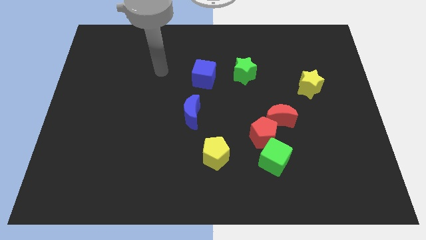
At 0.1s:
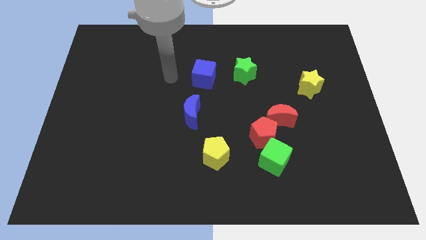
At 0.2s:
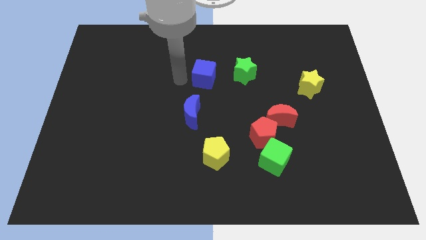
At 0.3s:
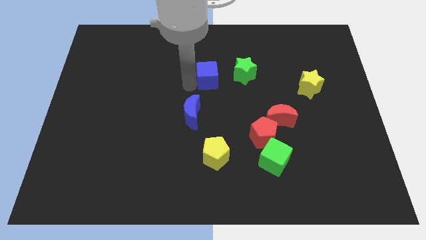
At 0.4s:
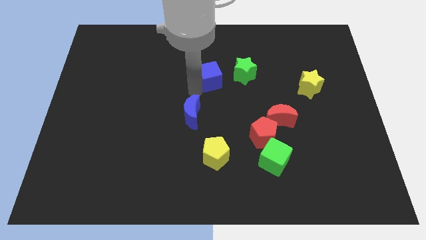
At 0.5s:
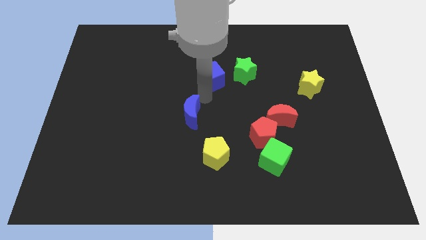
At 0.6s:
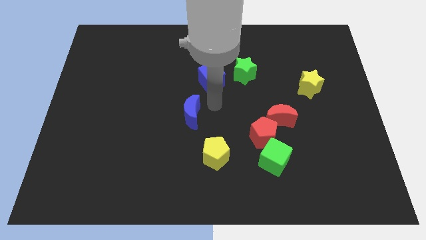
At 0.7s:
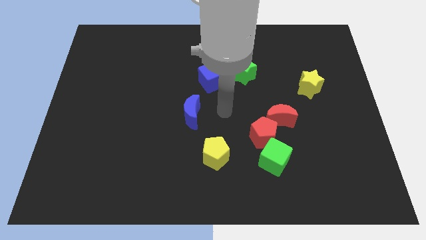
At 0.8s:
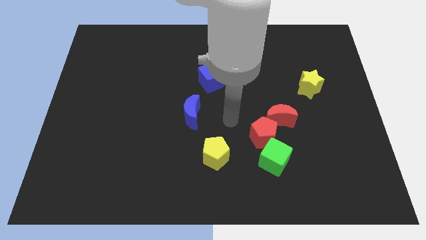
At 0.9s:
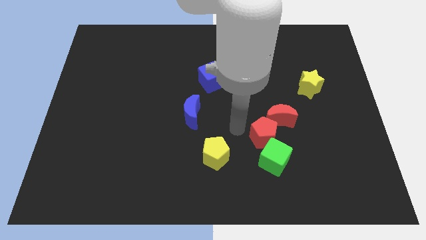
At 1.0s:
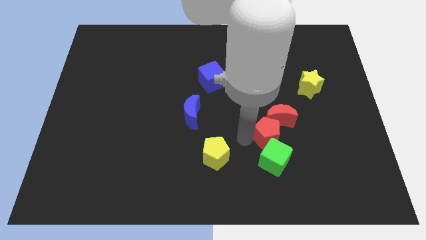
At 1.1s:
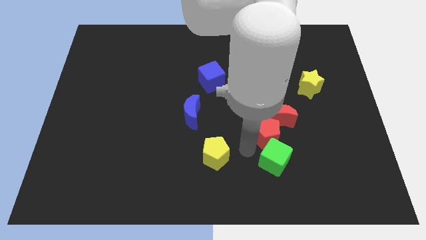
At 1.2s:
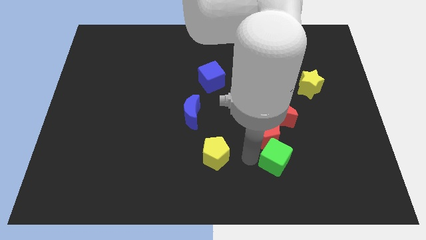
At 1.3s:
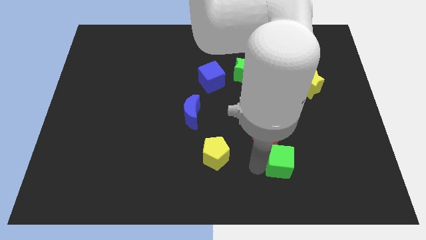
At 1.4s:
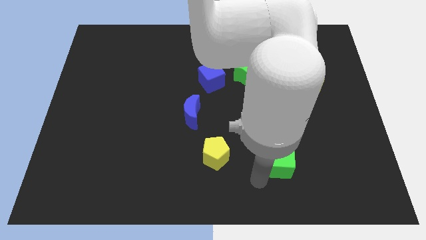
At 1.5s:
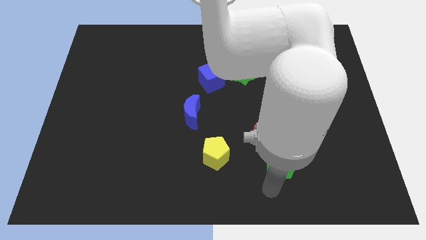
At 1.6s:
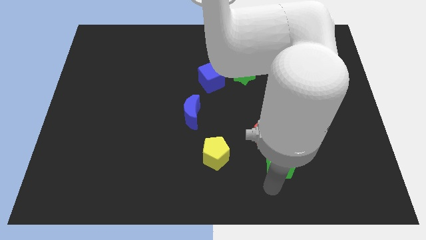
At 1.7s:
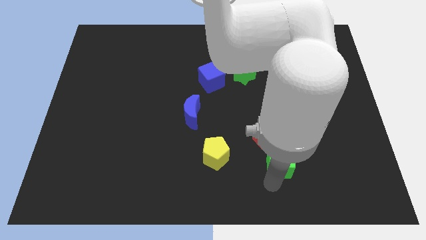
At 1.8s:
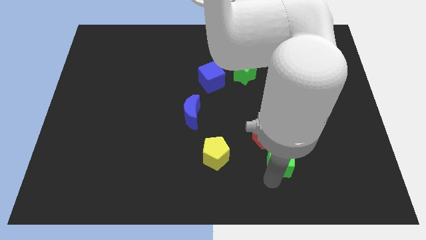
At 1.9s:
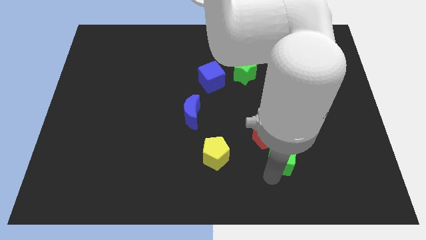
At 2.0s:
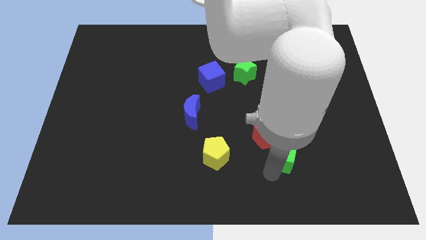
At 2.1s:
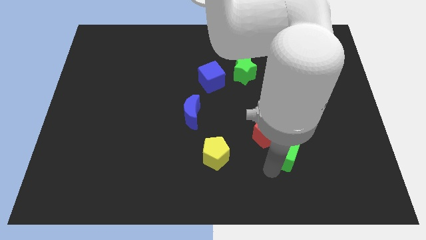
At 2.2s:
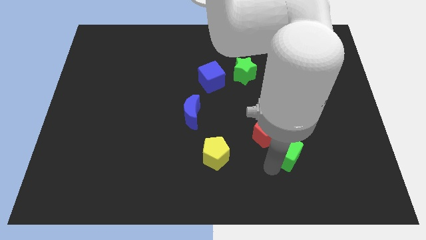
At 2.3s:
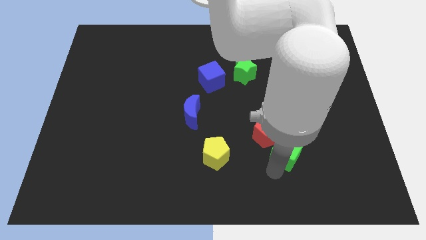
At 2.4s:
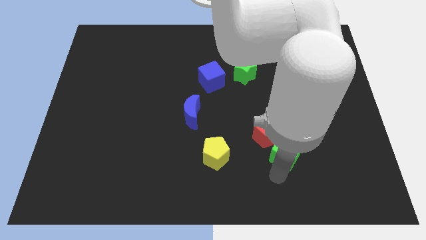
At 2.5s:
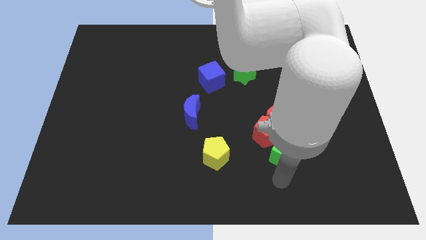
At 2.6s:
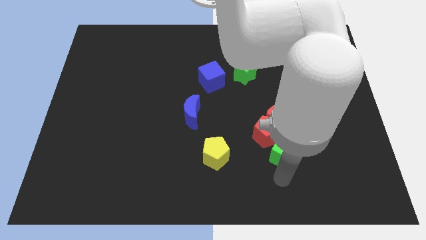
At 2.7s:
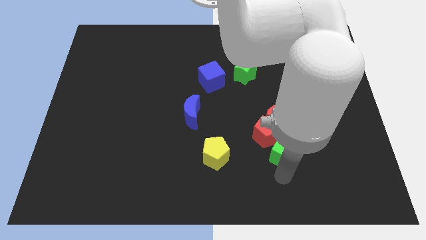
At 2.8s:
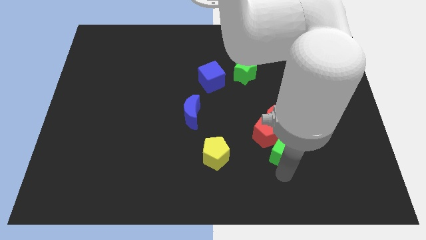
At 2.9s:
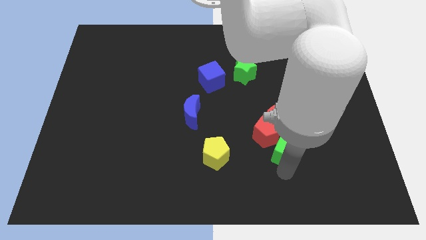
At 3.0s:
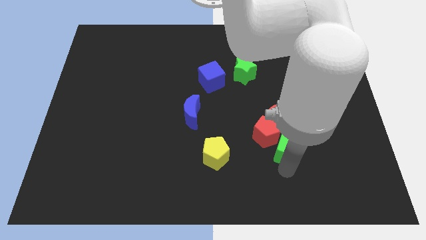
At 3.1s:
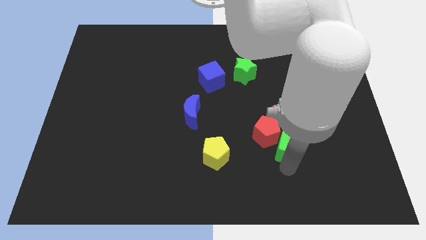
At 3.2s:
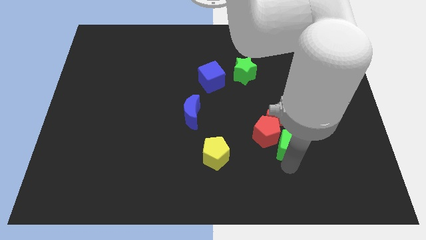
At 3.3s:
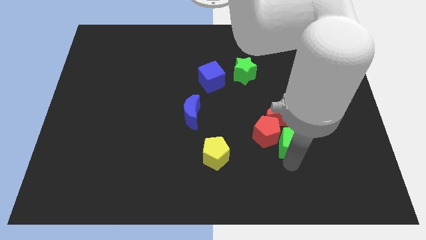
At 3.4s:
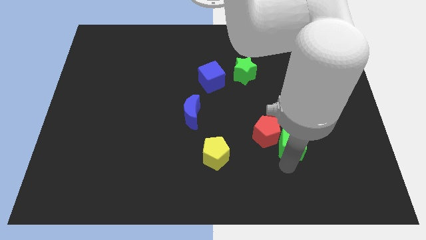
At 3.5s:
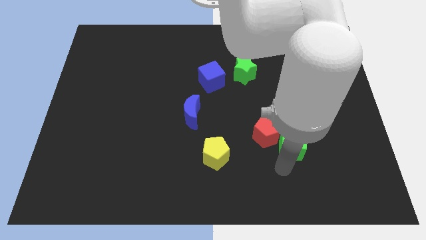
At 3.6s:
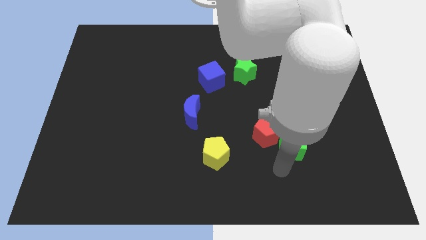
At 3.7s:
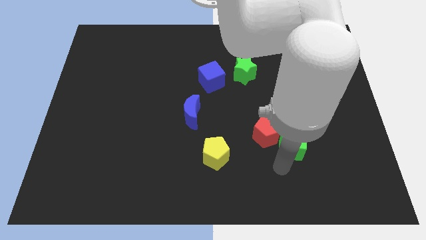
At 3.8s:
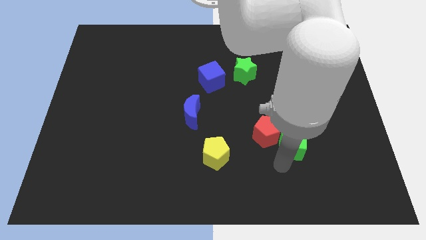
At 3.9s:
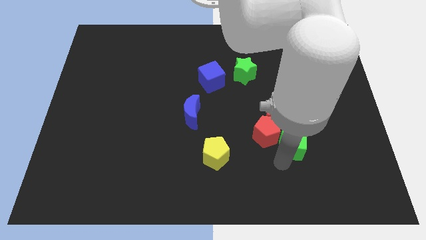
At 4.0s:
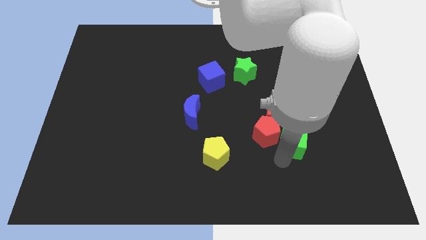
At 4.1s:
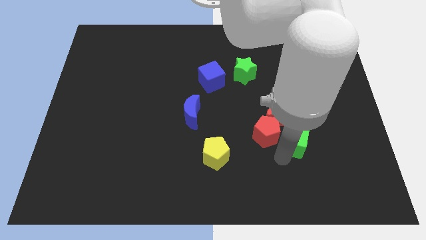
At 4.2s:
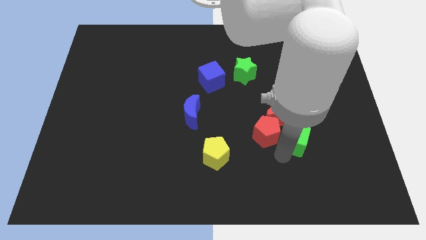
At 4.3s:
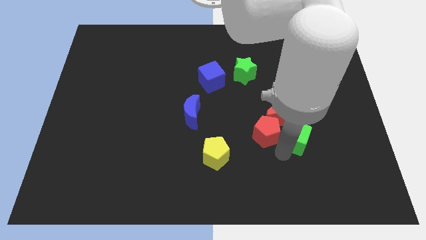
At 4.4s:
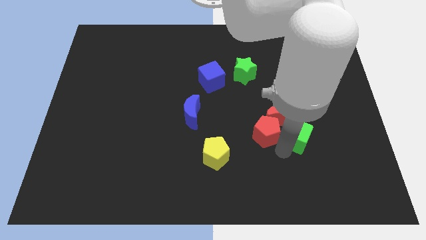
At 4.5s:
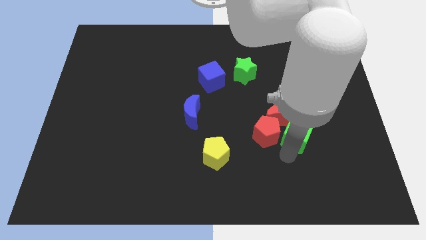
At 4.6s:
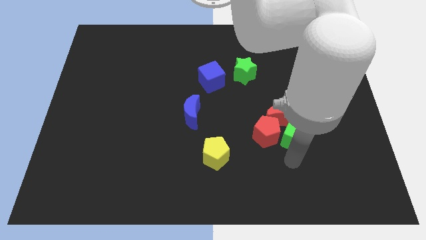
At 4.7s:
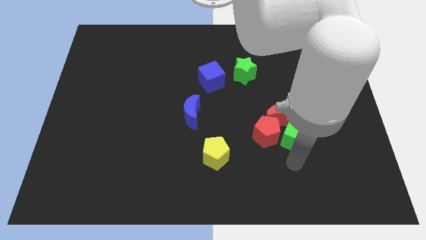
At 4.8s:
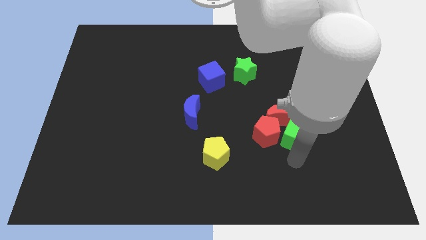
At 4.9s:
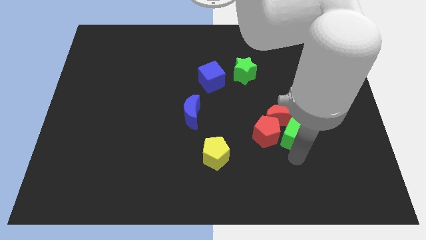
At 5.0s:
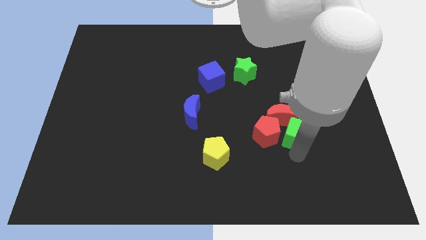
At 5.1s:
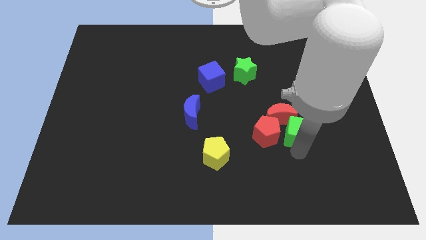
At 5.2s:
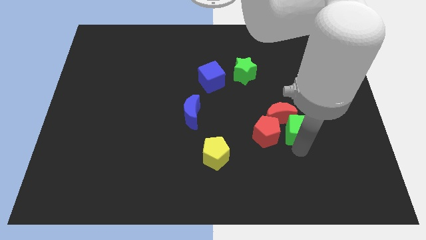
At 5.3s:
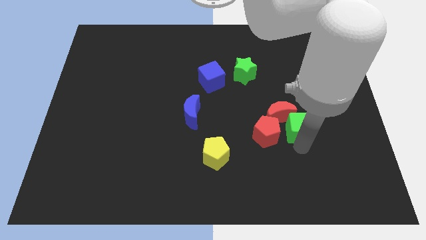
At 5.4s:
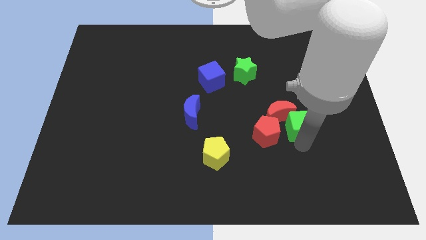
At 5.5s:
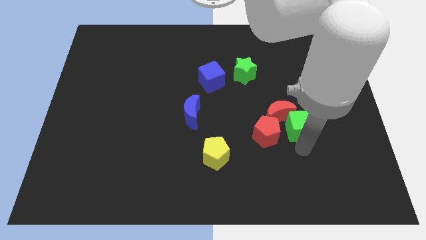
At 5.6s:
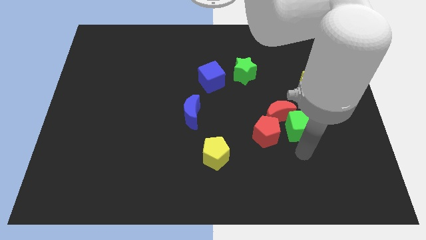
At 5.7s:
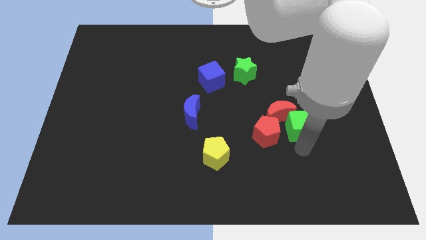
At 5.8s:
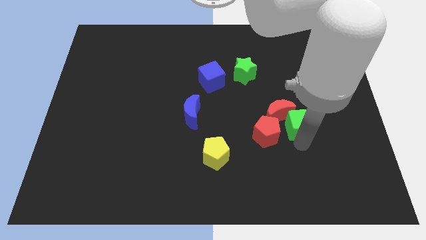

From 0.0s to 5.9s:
slide the green cube somewhat up

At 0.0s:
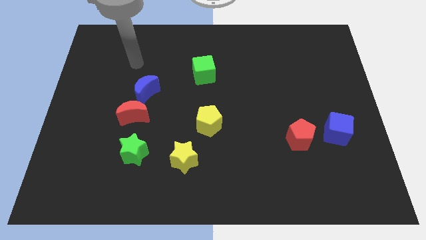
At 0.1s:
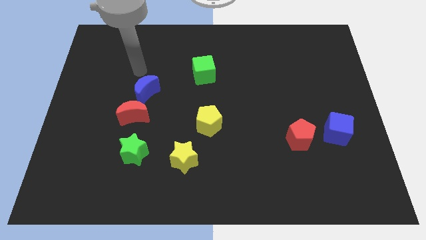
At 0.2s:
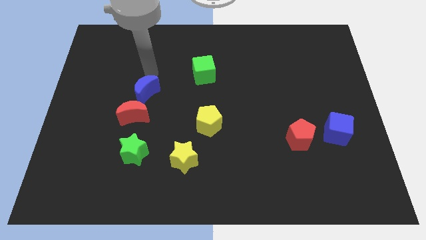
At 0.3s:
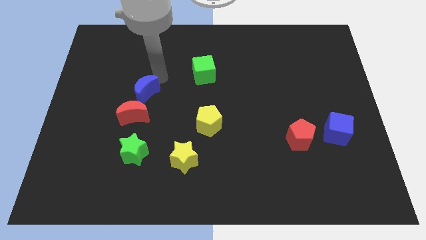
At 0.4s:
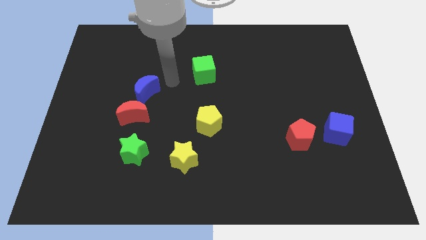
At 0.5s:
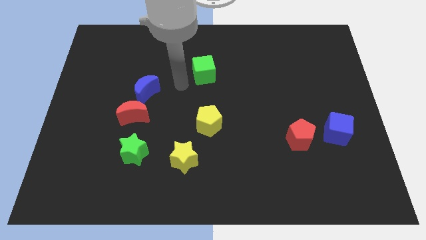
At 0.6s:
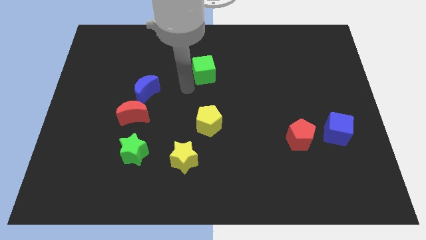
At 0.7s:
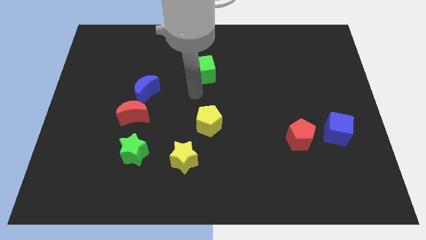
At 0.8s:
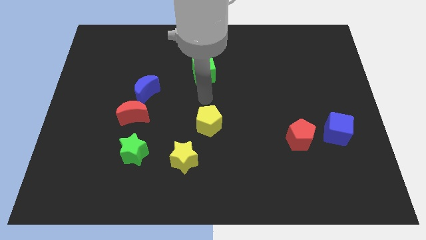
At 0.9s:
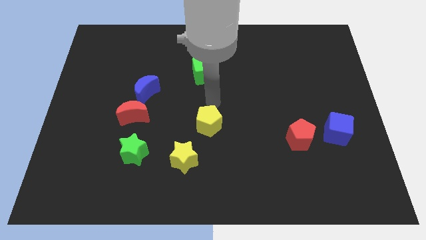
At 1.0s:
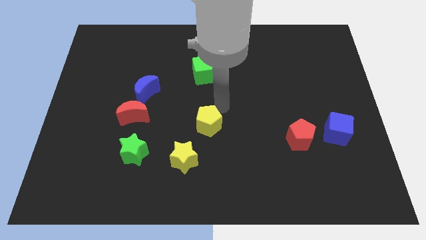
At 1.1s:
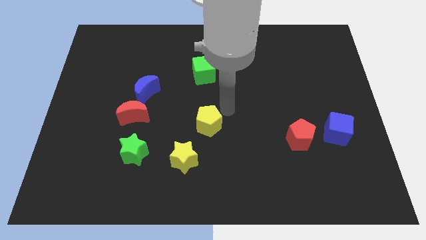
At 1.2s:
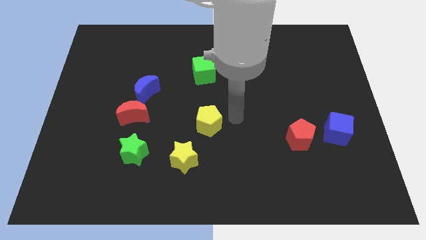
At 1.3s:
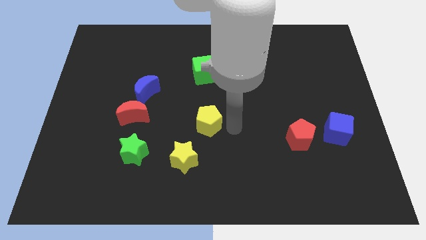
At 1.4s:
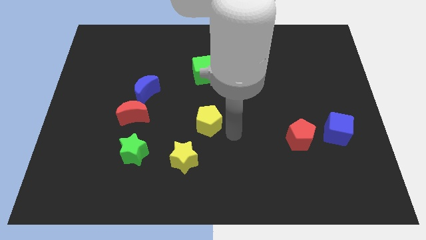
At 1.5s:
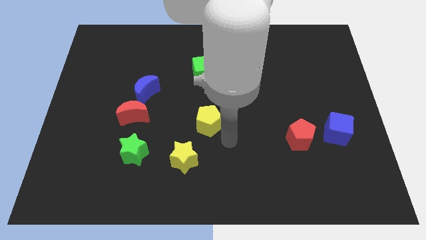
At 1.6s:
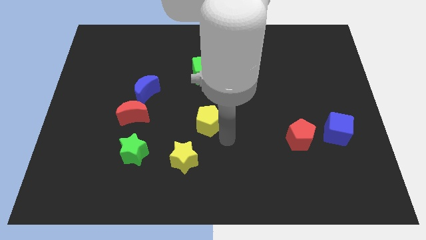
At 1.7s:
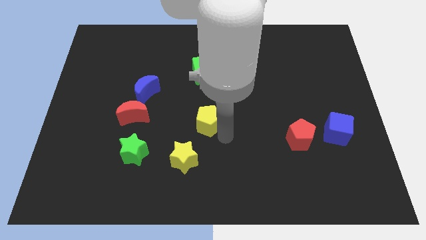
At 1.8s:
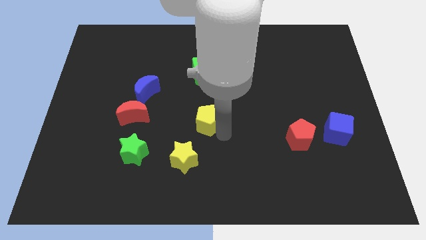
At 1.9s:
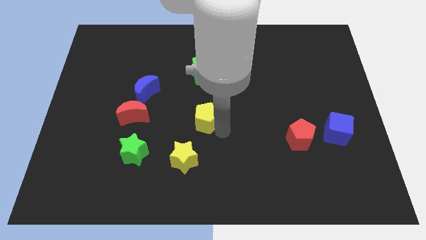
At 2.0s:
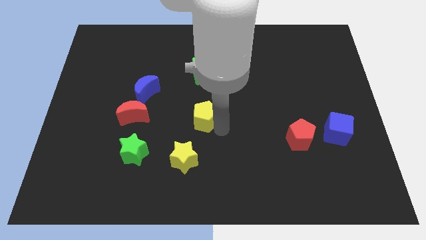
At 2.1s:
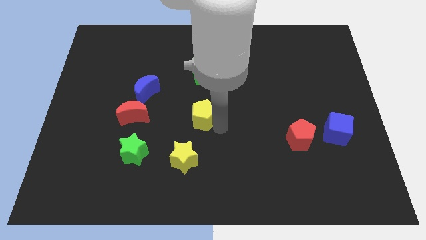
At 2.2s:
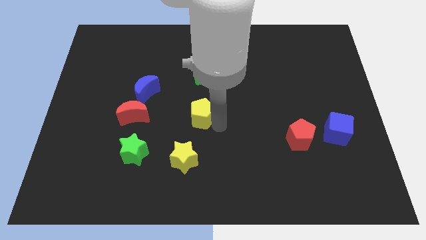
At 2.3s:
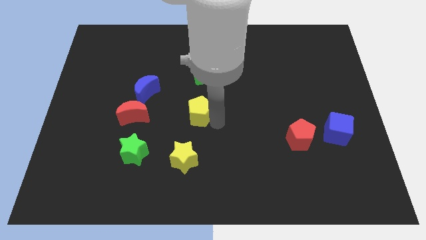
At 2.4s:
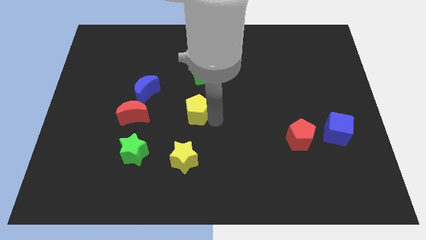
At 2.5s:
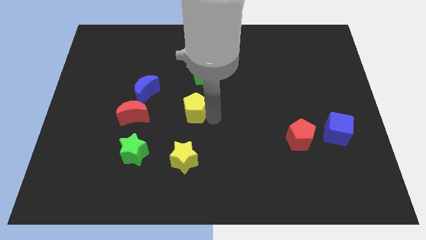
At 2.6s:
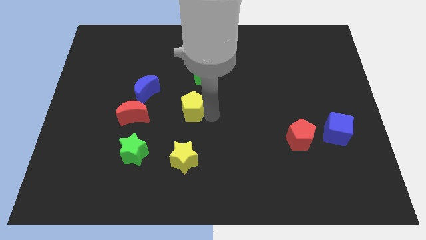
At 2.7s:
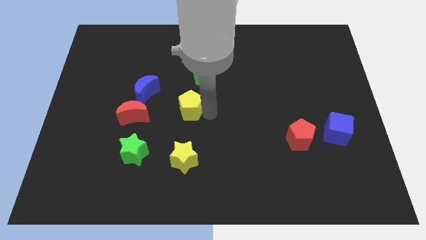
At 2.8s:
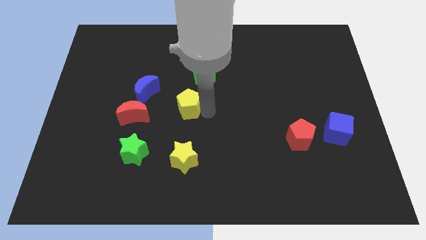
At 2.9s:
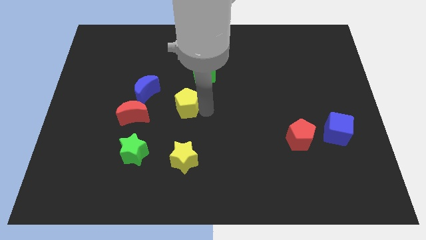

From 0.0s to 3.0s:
slide the yellow pentagon a little upwards and left
